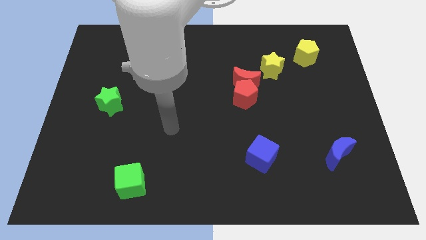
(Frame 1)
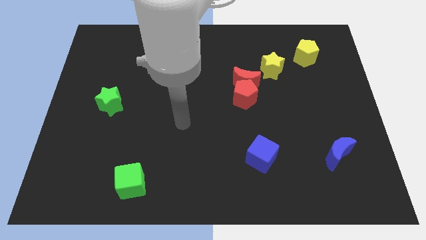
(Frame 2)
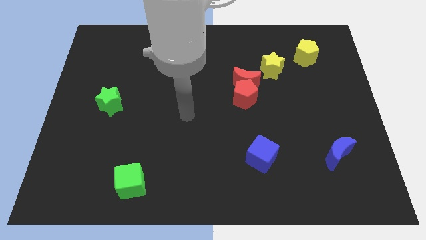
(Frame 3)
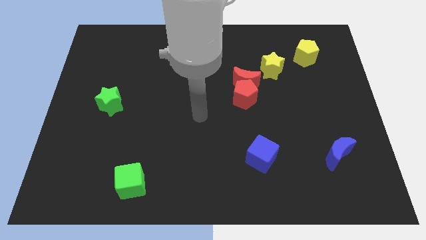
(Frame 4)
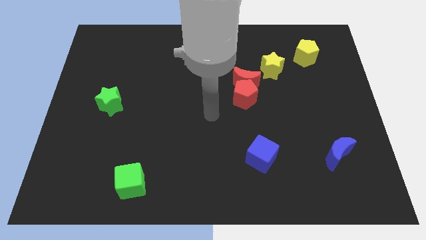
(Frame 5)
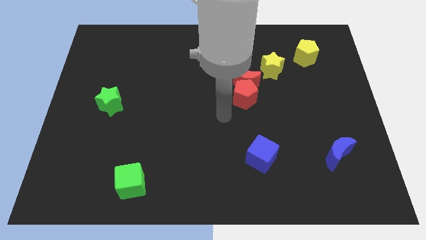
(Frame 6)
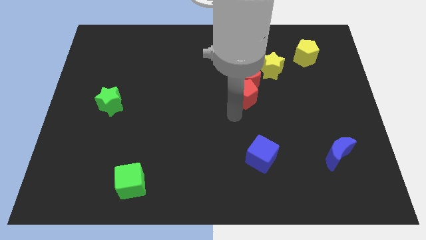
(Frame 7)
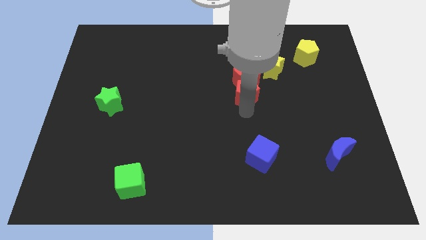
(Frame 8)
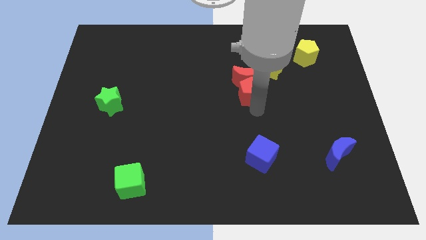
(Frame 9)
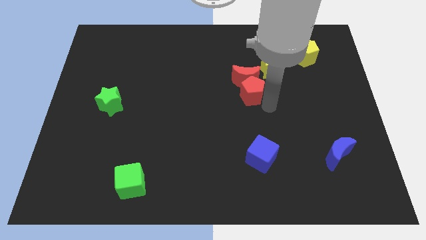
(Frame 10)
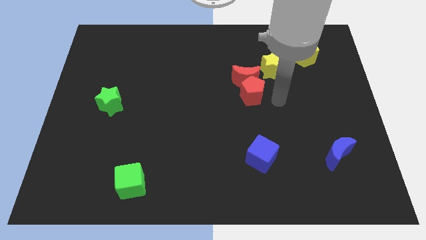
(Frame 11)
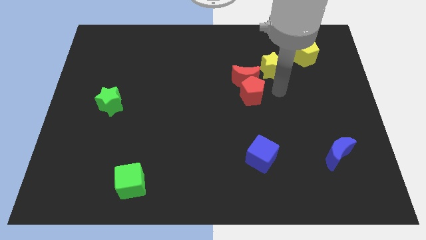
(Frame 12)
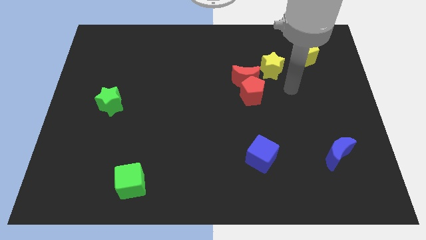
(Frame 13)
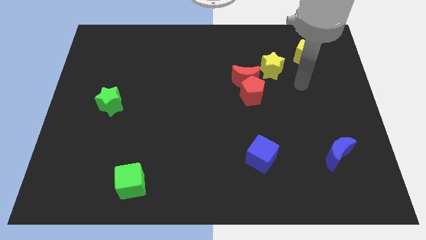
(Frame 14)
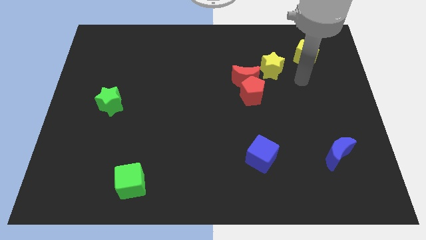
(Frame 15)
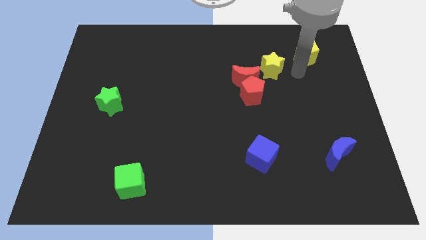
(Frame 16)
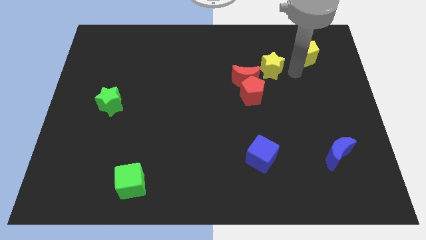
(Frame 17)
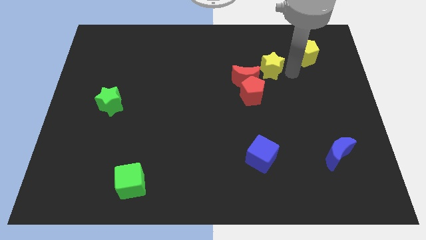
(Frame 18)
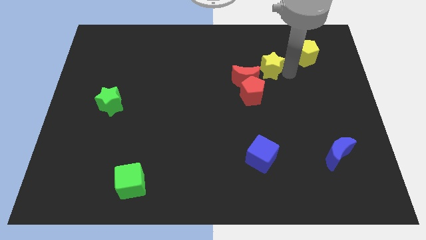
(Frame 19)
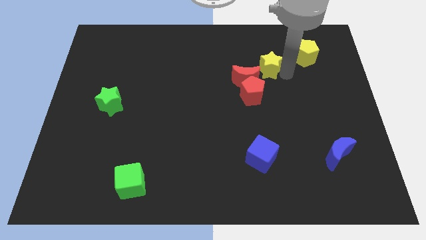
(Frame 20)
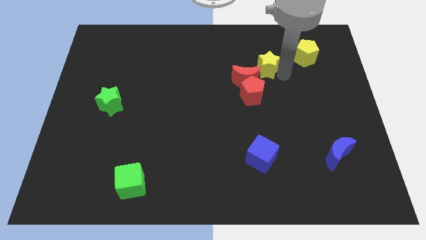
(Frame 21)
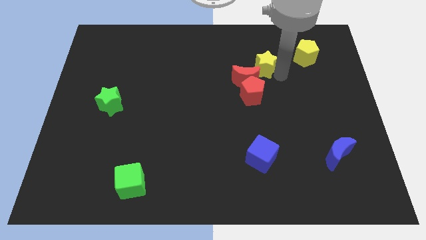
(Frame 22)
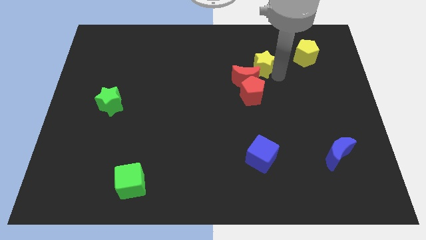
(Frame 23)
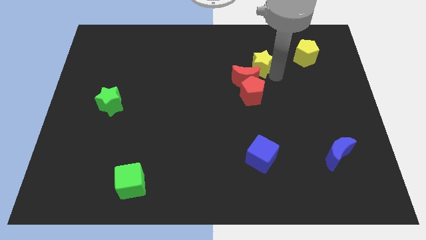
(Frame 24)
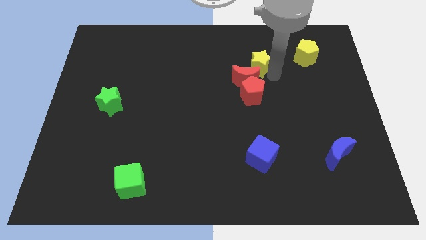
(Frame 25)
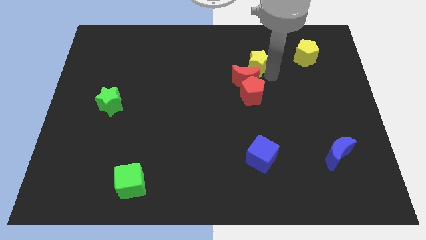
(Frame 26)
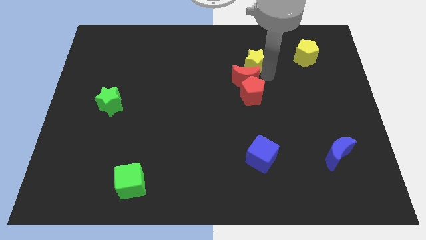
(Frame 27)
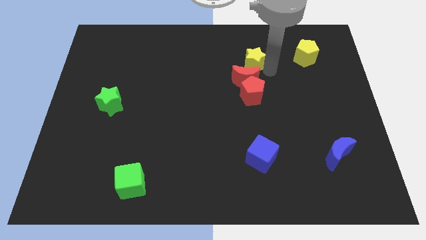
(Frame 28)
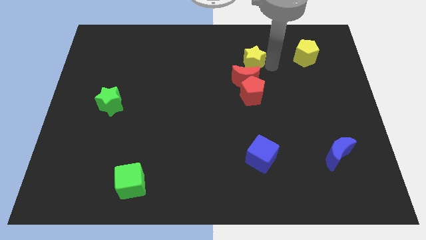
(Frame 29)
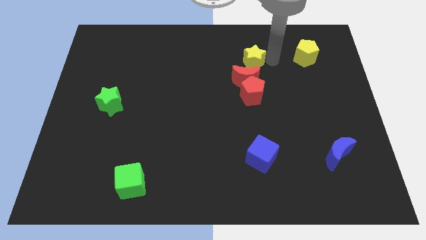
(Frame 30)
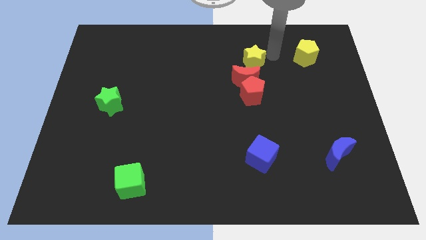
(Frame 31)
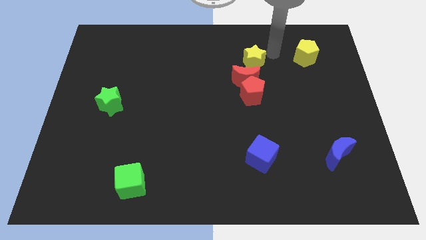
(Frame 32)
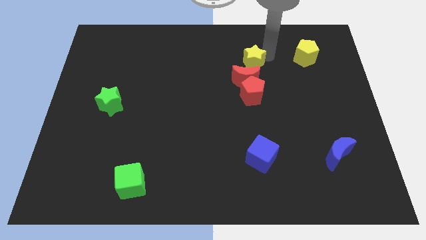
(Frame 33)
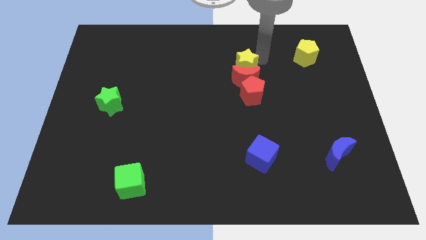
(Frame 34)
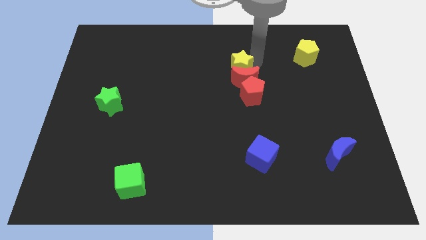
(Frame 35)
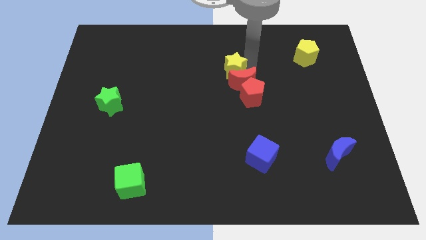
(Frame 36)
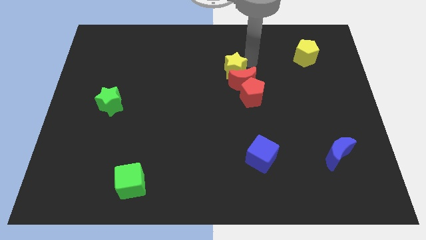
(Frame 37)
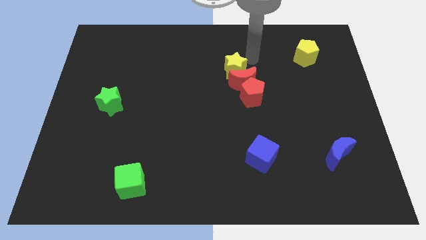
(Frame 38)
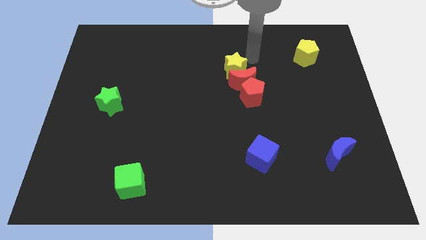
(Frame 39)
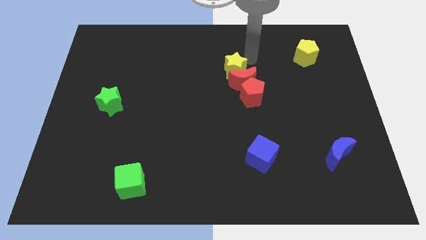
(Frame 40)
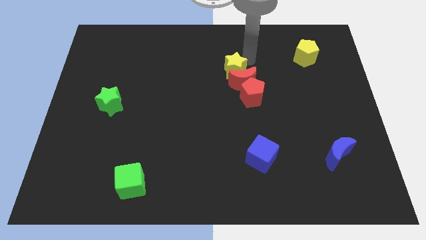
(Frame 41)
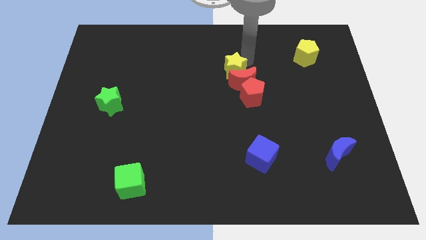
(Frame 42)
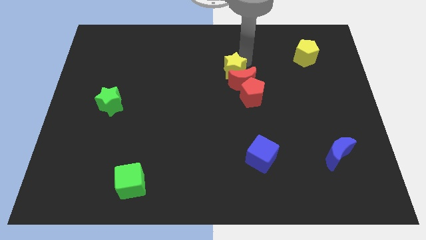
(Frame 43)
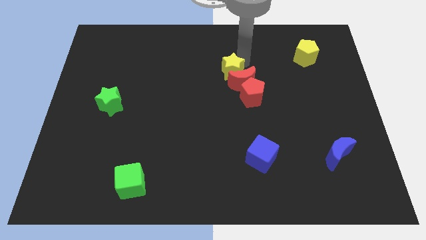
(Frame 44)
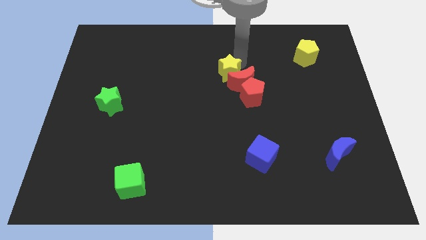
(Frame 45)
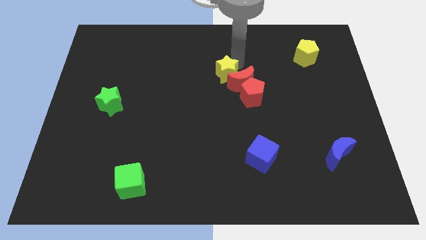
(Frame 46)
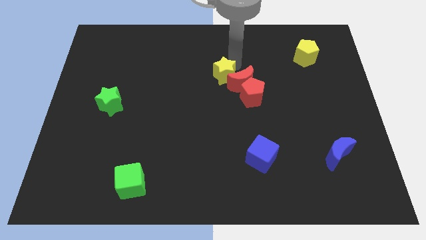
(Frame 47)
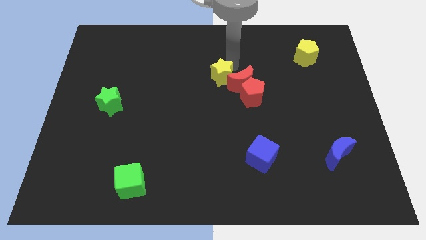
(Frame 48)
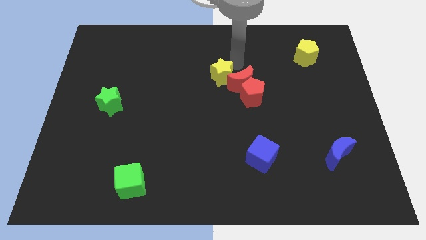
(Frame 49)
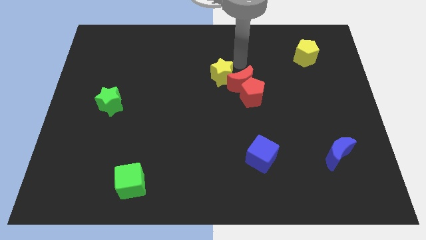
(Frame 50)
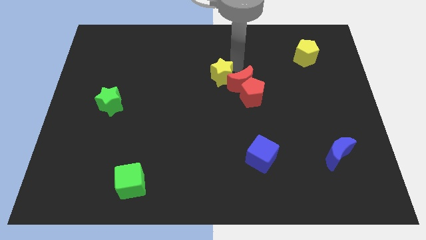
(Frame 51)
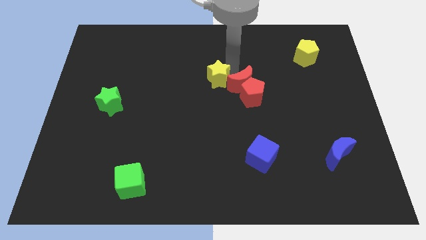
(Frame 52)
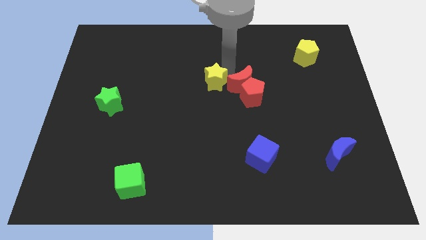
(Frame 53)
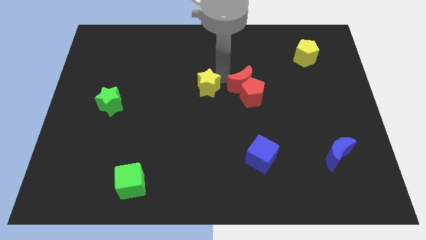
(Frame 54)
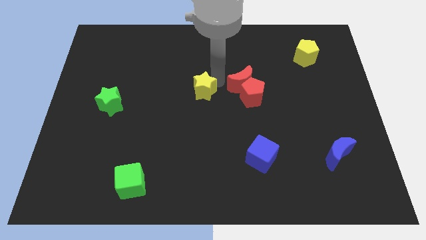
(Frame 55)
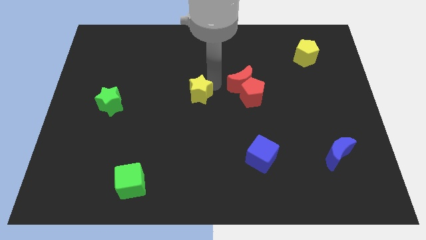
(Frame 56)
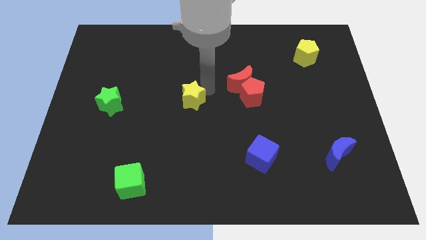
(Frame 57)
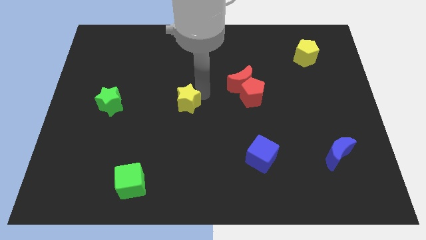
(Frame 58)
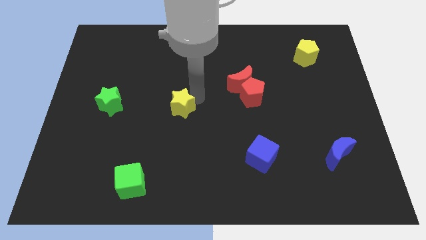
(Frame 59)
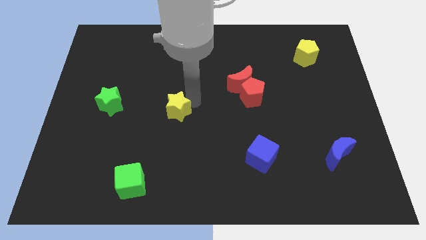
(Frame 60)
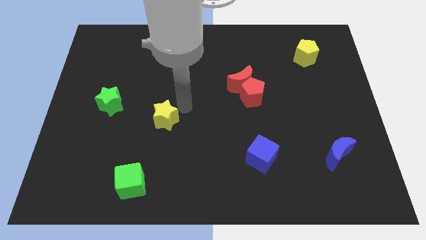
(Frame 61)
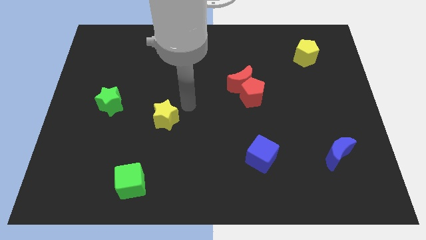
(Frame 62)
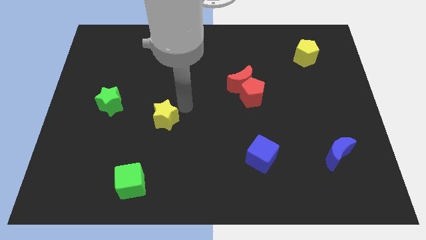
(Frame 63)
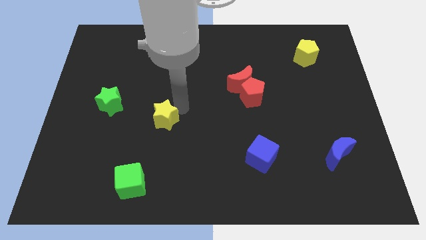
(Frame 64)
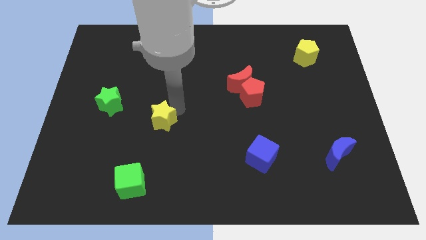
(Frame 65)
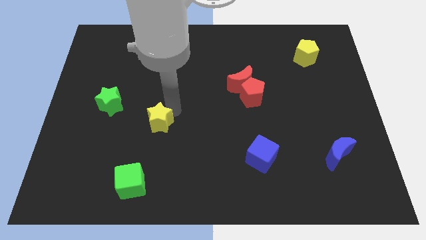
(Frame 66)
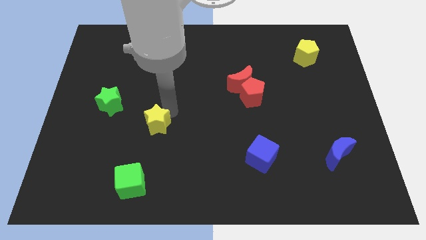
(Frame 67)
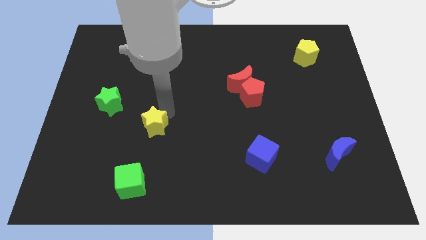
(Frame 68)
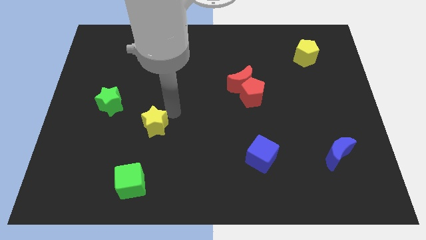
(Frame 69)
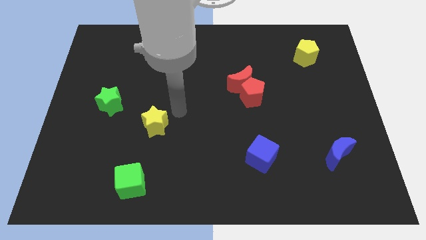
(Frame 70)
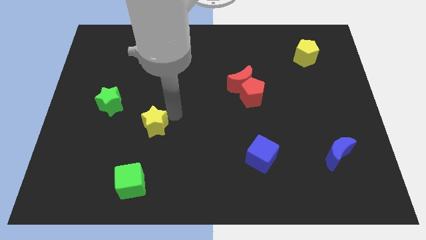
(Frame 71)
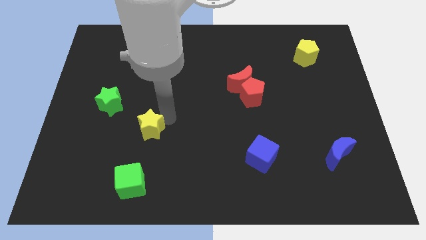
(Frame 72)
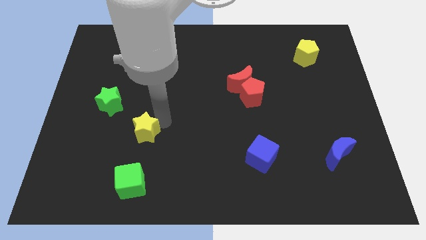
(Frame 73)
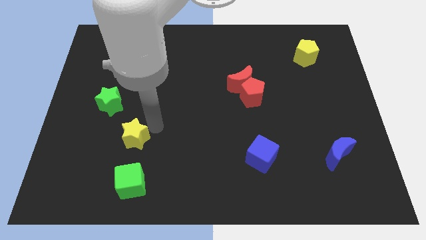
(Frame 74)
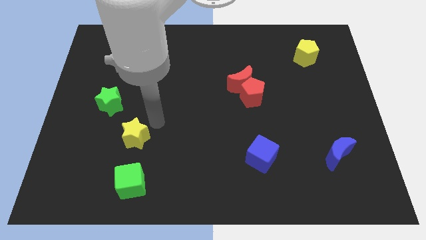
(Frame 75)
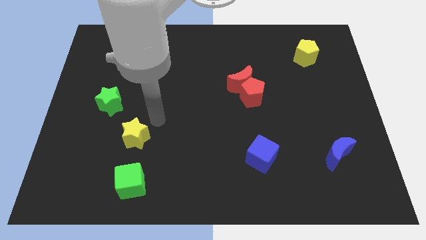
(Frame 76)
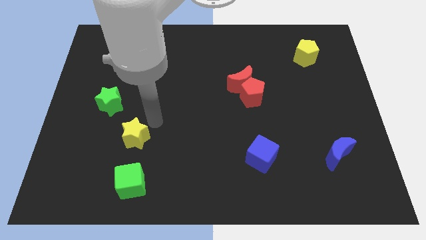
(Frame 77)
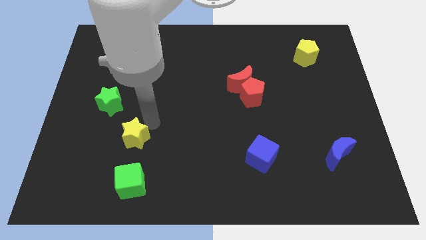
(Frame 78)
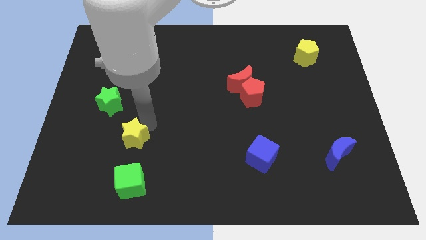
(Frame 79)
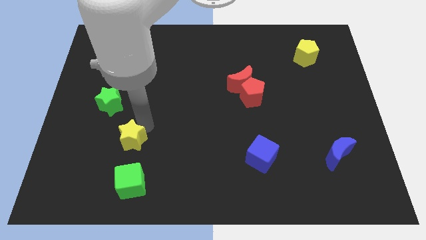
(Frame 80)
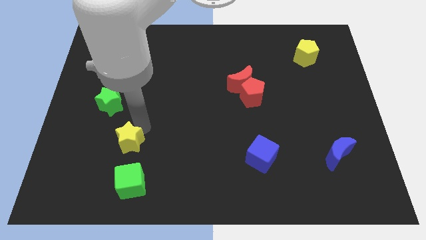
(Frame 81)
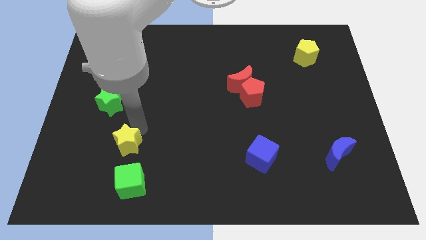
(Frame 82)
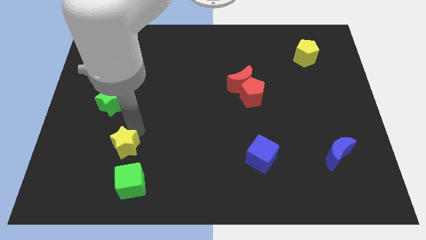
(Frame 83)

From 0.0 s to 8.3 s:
push the yellow star diagonally up and to the left of the green cube
